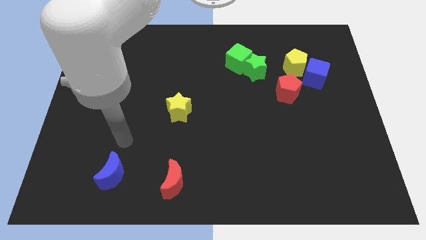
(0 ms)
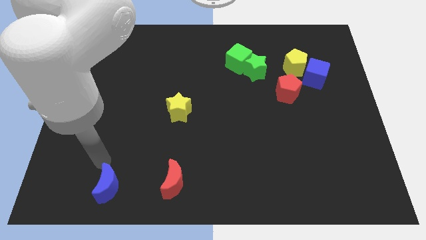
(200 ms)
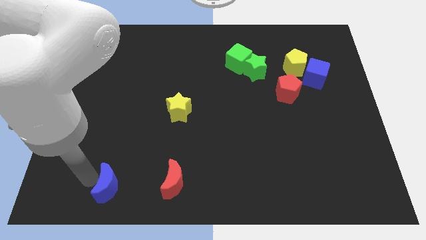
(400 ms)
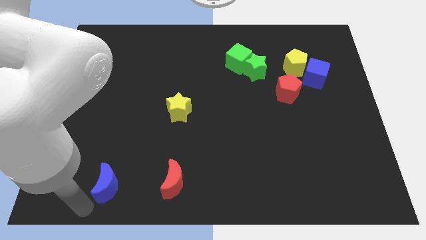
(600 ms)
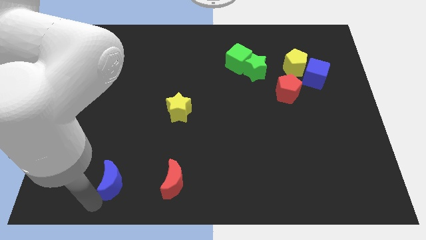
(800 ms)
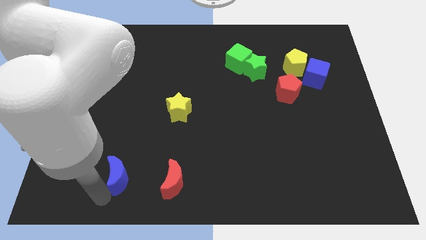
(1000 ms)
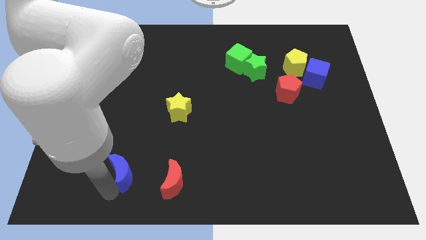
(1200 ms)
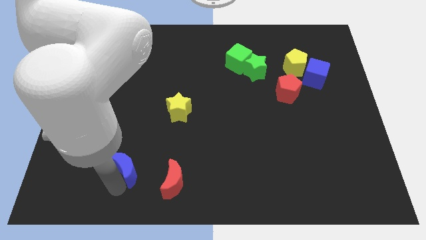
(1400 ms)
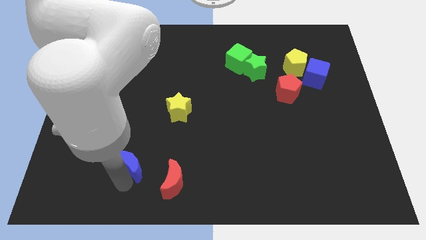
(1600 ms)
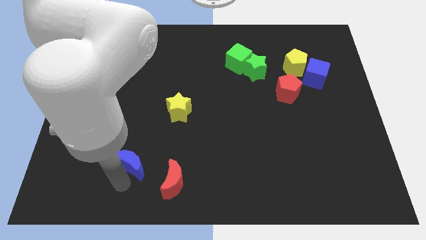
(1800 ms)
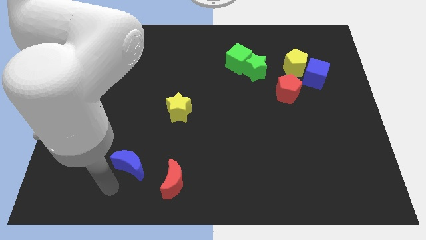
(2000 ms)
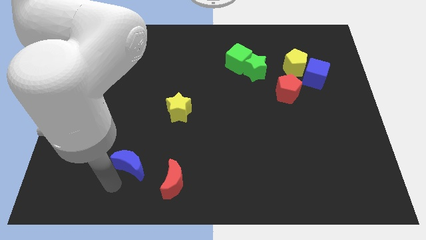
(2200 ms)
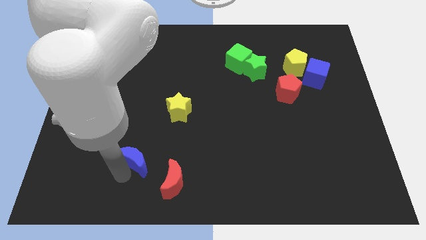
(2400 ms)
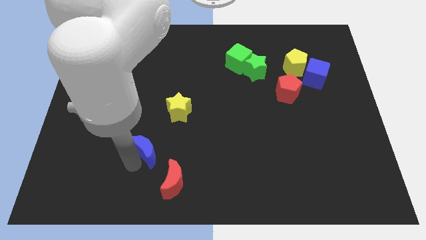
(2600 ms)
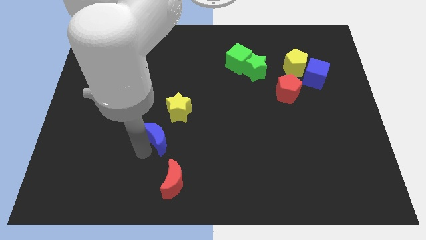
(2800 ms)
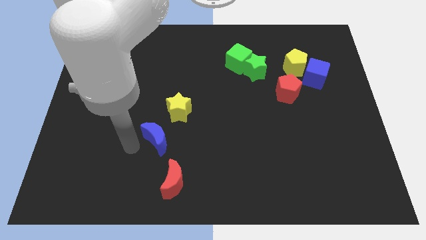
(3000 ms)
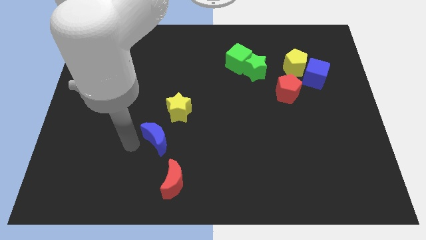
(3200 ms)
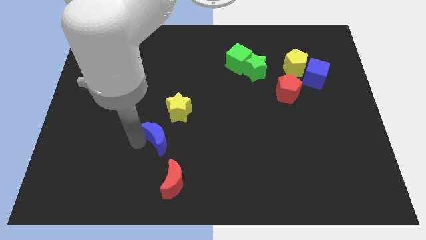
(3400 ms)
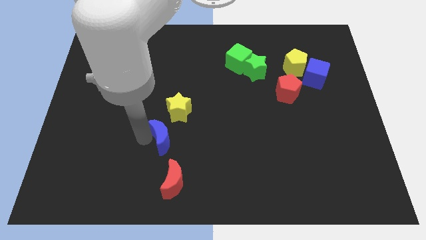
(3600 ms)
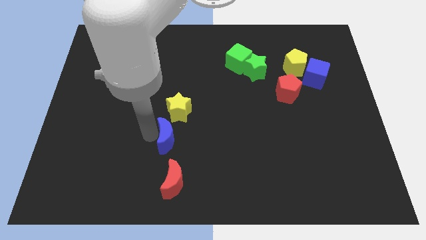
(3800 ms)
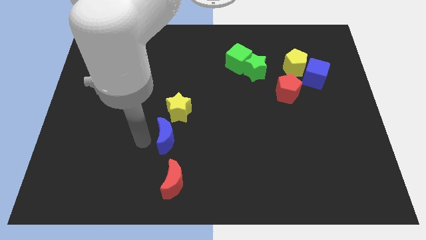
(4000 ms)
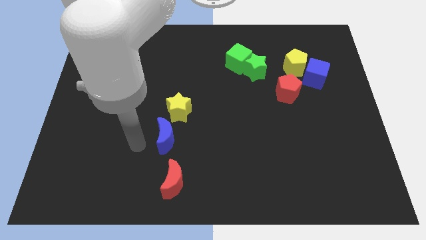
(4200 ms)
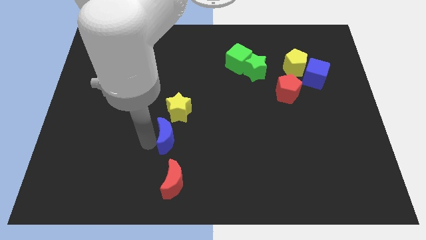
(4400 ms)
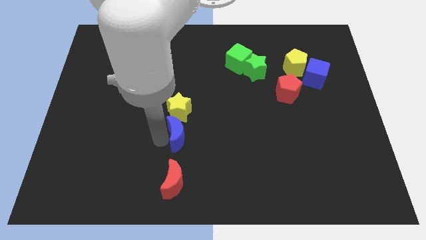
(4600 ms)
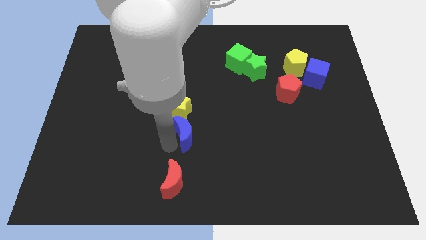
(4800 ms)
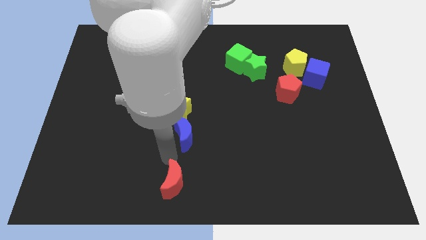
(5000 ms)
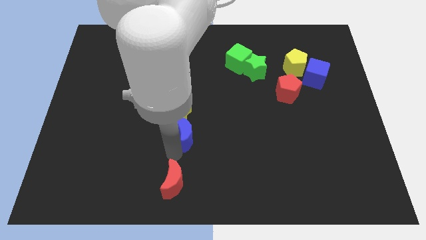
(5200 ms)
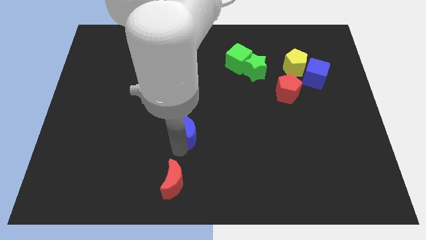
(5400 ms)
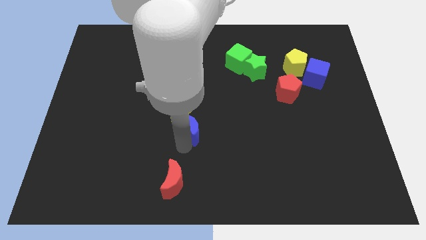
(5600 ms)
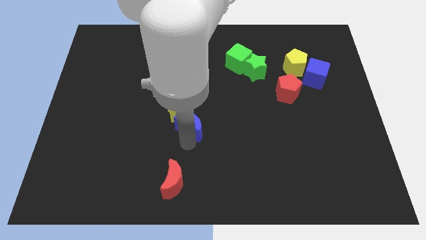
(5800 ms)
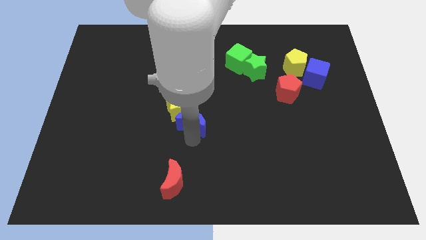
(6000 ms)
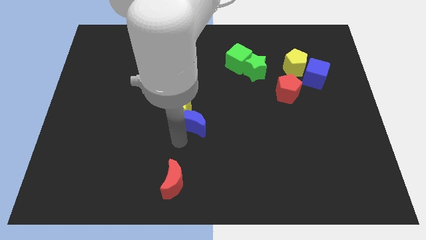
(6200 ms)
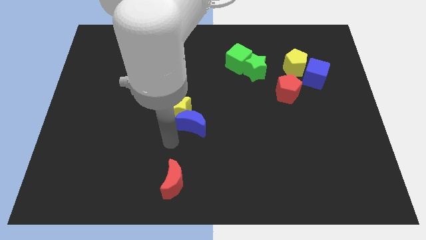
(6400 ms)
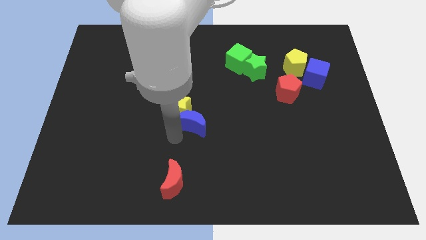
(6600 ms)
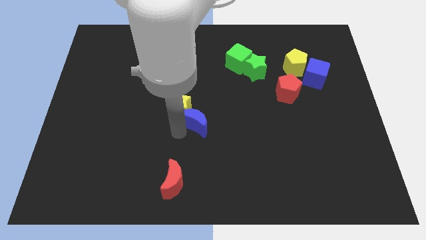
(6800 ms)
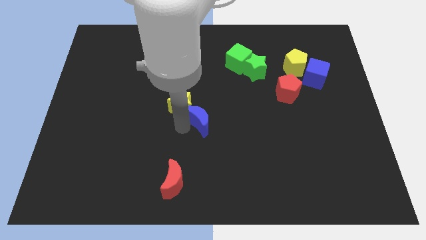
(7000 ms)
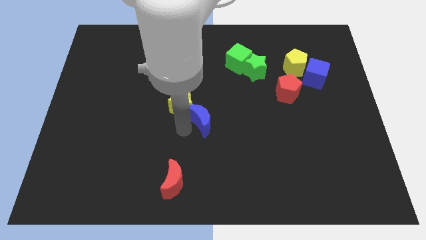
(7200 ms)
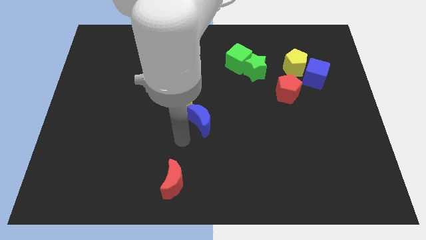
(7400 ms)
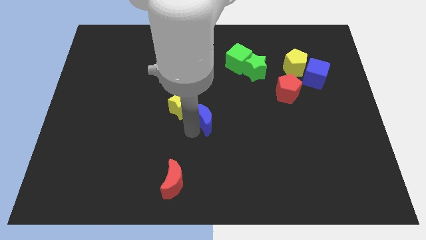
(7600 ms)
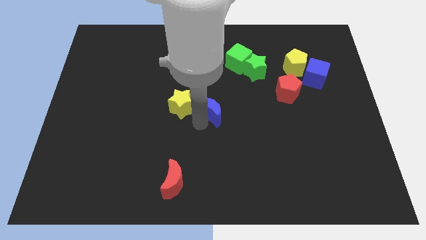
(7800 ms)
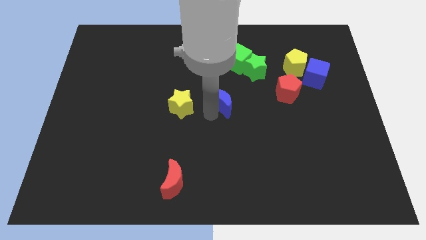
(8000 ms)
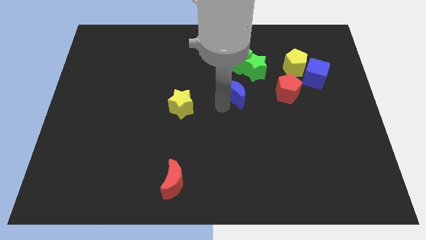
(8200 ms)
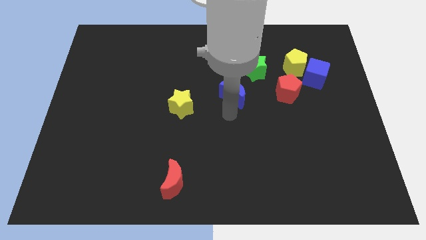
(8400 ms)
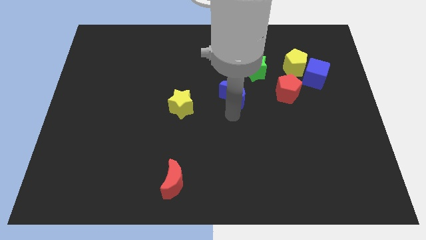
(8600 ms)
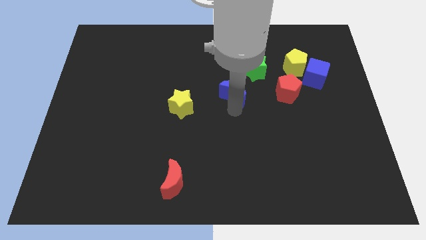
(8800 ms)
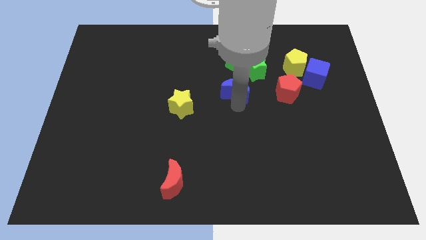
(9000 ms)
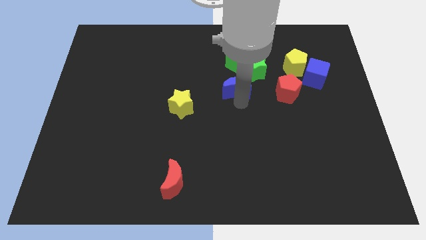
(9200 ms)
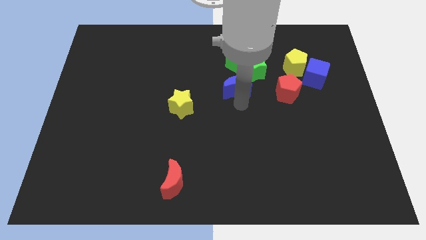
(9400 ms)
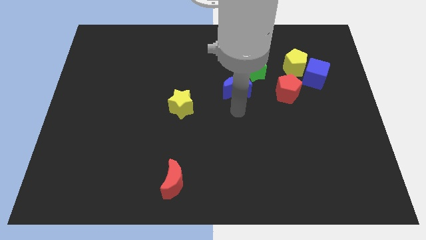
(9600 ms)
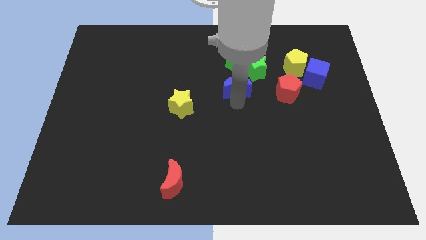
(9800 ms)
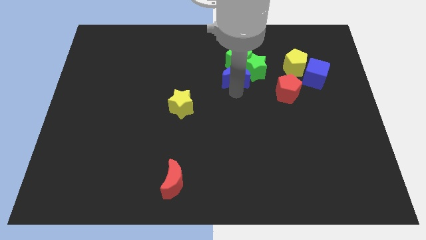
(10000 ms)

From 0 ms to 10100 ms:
slide the blue moon to the green cube

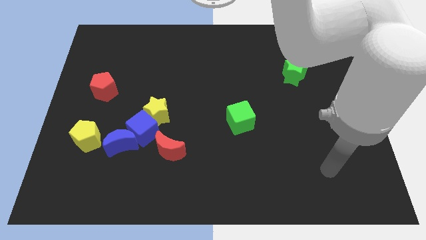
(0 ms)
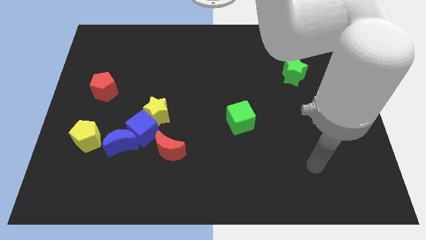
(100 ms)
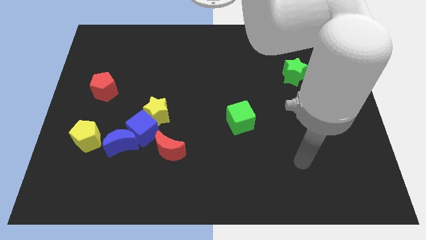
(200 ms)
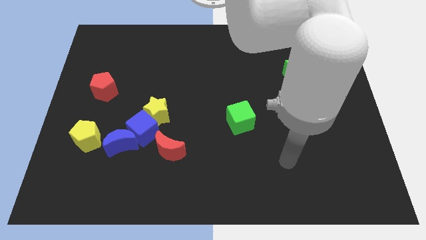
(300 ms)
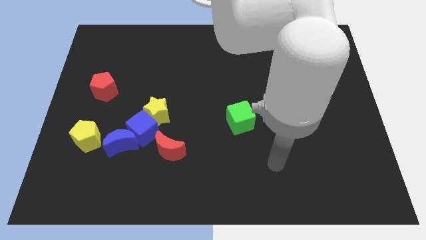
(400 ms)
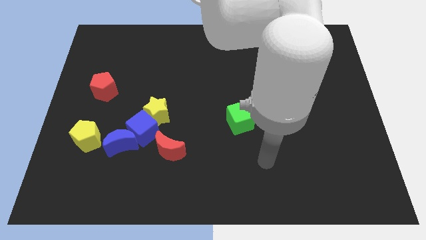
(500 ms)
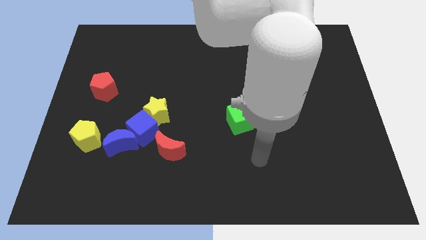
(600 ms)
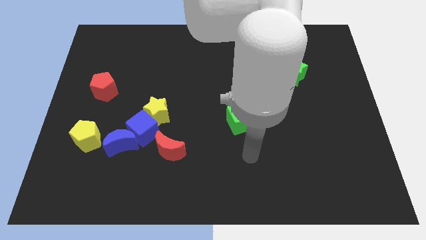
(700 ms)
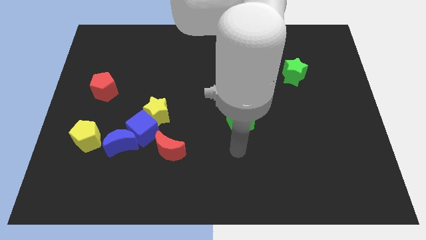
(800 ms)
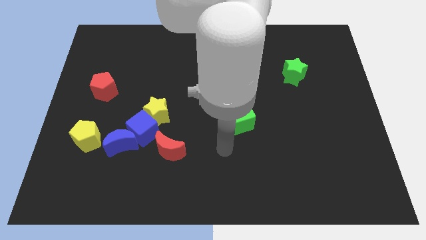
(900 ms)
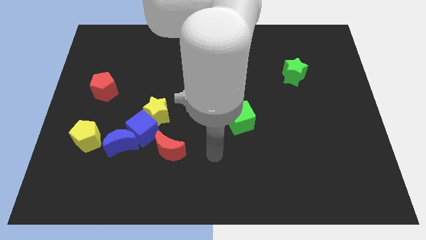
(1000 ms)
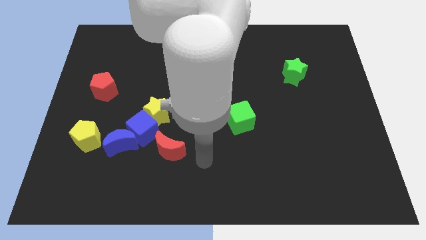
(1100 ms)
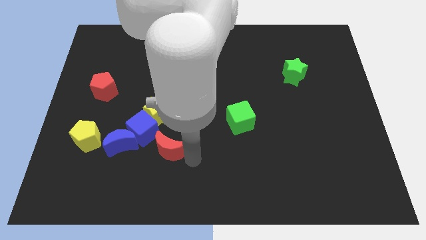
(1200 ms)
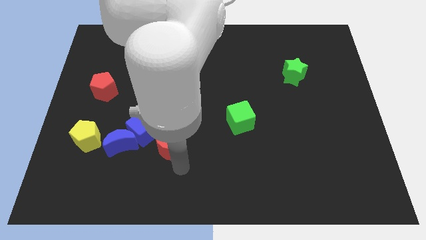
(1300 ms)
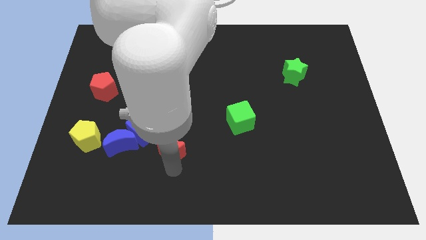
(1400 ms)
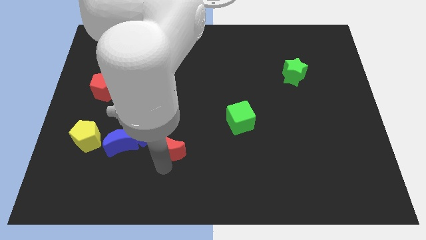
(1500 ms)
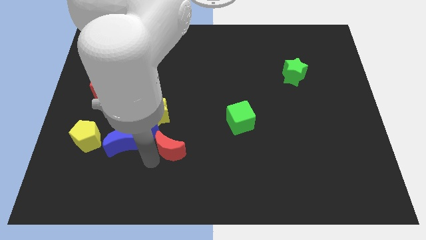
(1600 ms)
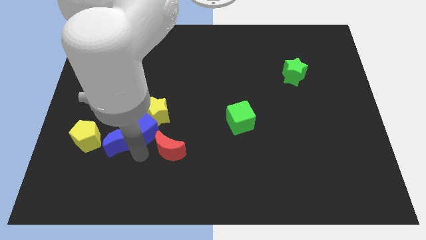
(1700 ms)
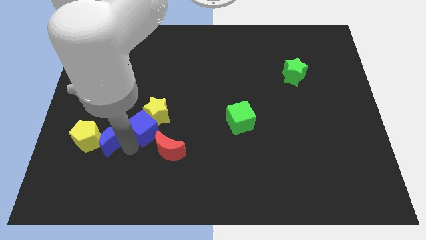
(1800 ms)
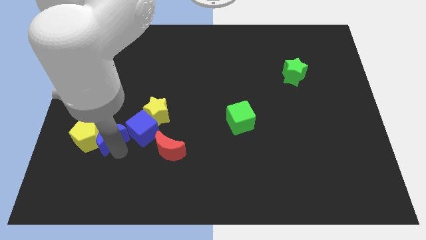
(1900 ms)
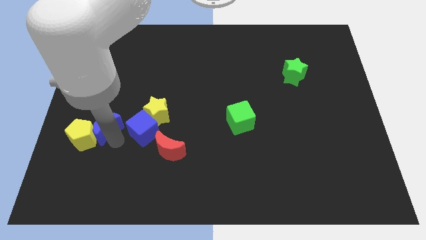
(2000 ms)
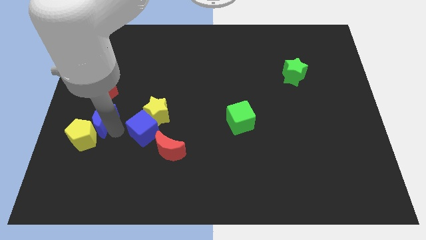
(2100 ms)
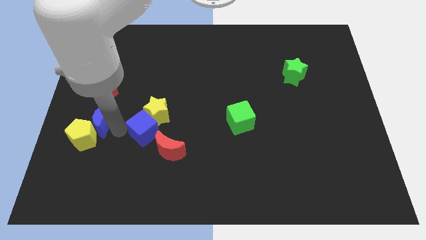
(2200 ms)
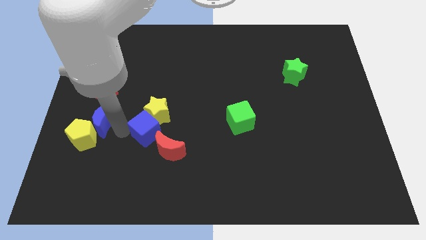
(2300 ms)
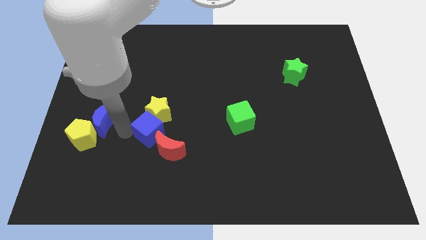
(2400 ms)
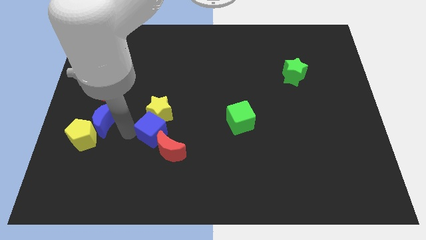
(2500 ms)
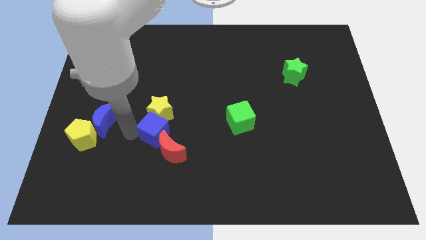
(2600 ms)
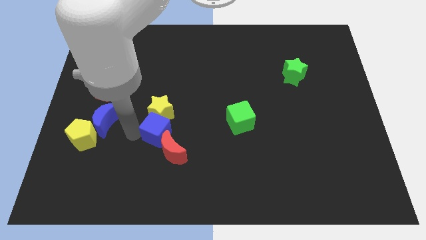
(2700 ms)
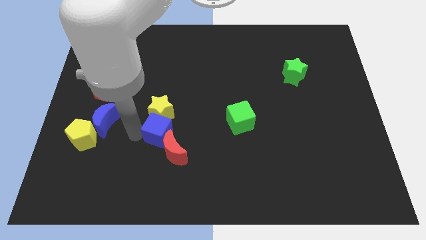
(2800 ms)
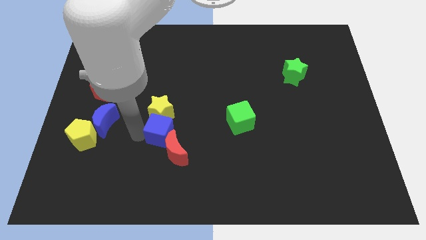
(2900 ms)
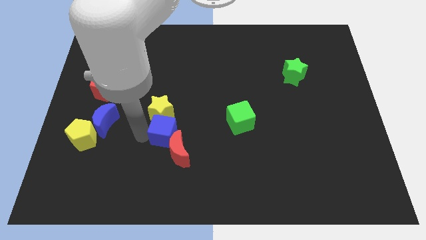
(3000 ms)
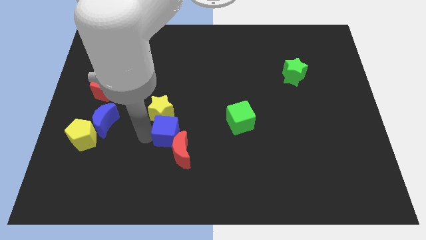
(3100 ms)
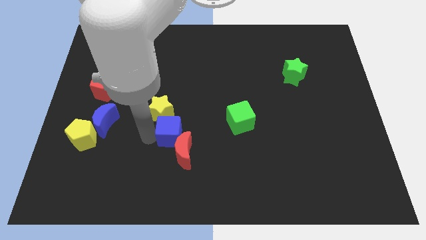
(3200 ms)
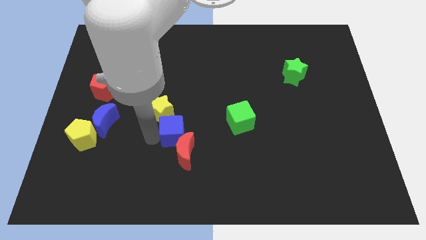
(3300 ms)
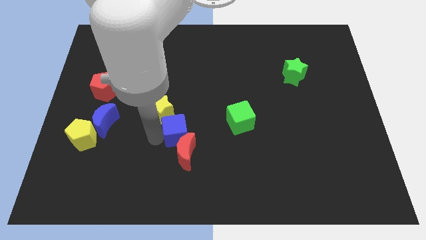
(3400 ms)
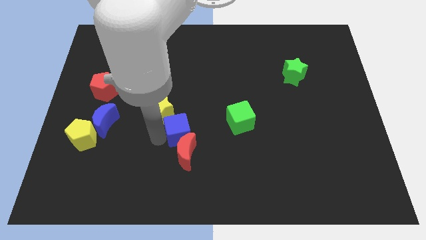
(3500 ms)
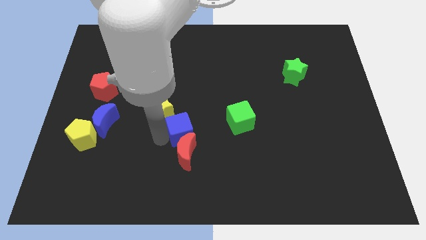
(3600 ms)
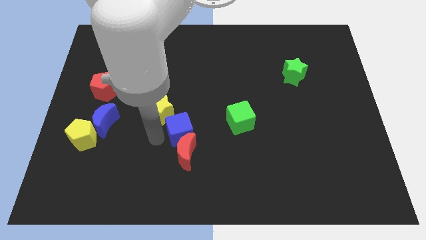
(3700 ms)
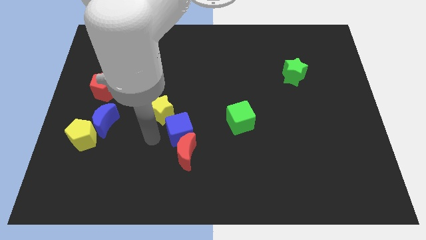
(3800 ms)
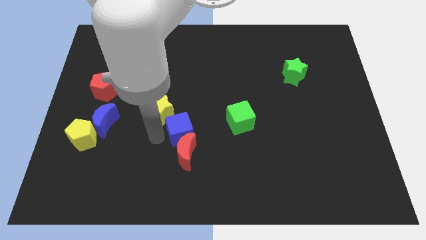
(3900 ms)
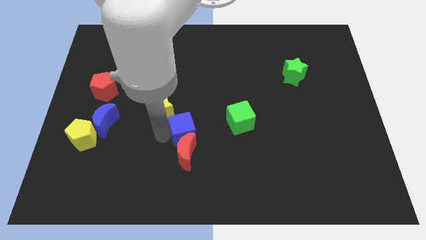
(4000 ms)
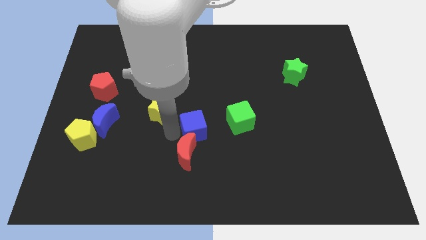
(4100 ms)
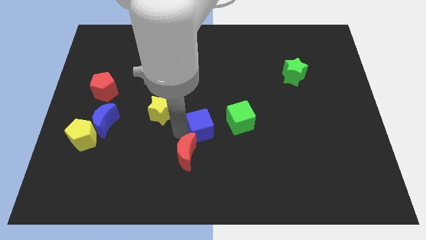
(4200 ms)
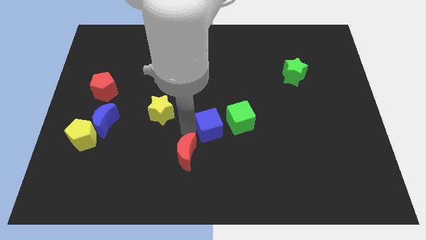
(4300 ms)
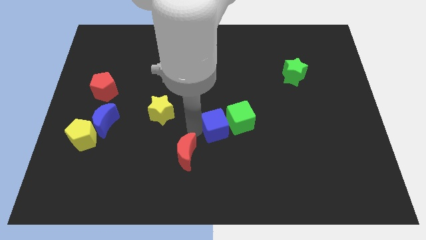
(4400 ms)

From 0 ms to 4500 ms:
move the blue cube close to the green cube
